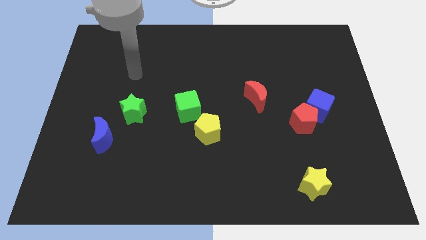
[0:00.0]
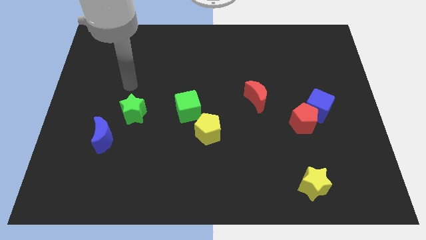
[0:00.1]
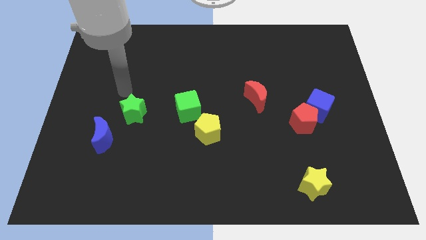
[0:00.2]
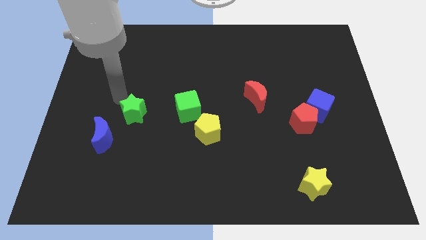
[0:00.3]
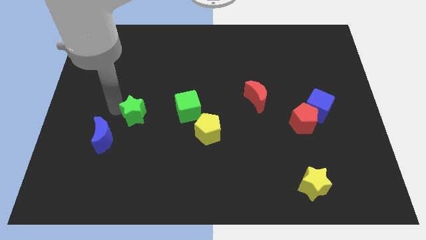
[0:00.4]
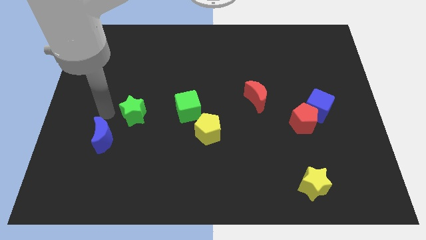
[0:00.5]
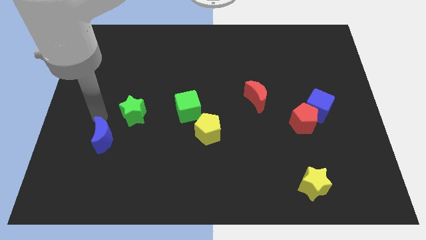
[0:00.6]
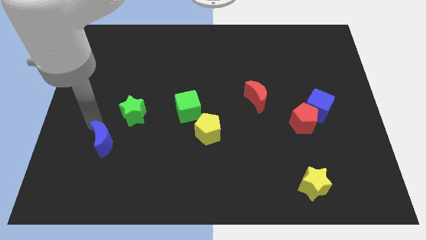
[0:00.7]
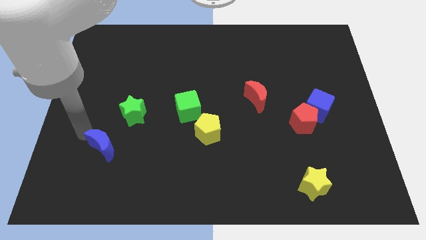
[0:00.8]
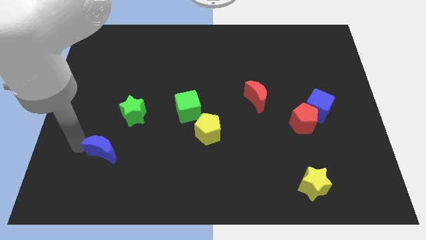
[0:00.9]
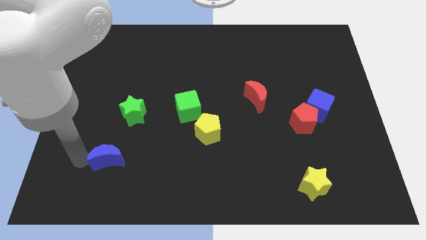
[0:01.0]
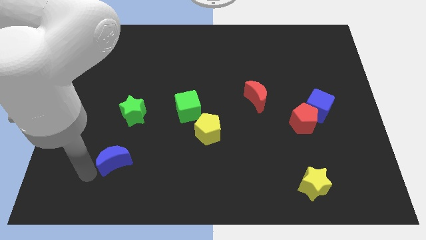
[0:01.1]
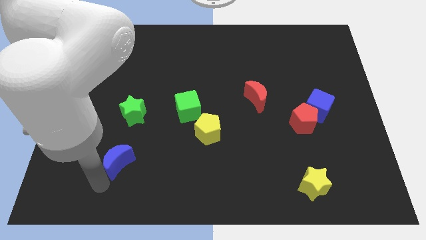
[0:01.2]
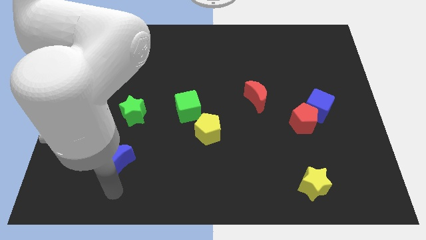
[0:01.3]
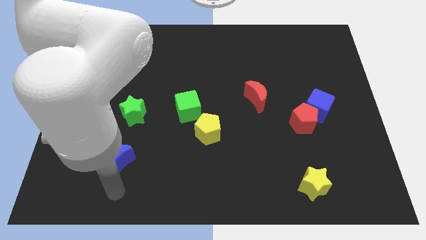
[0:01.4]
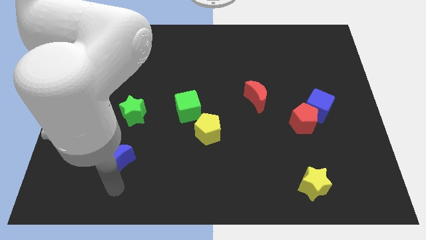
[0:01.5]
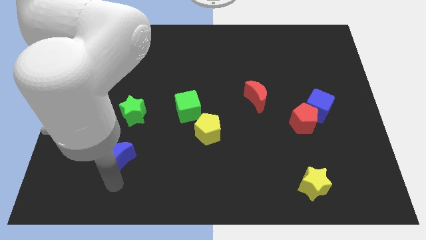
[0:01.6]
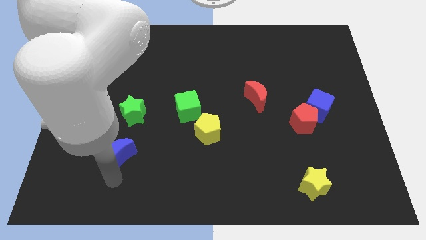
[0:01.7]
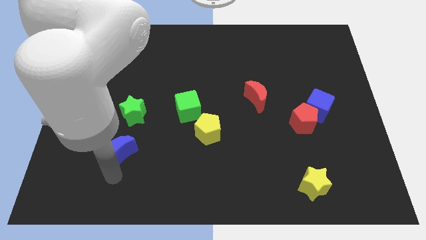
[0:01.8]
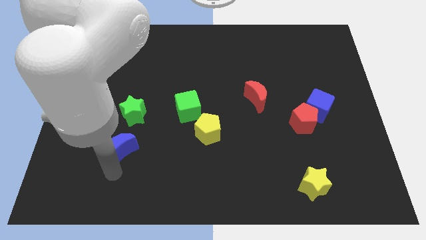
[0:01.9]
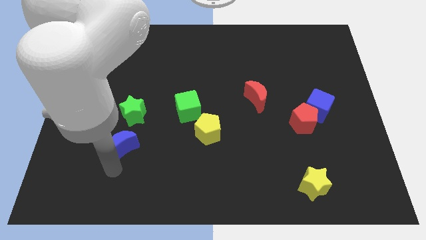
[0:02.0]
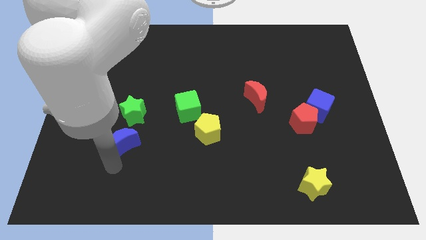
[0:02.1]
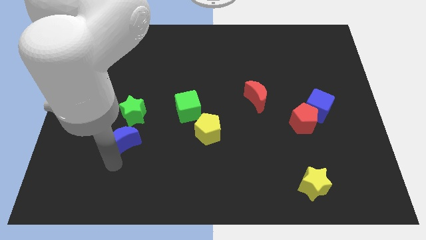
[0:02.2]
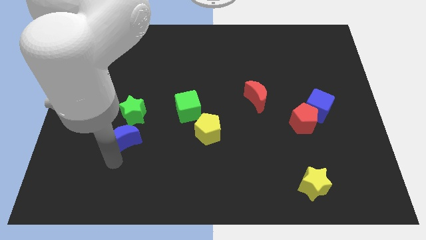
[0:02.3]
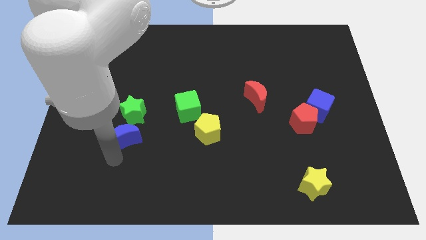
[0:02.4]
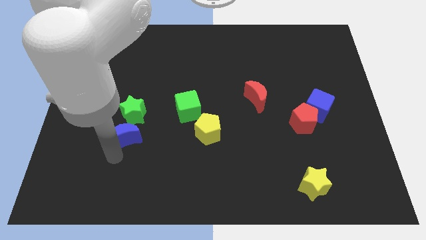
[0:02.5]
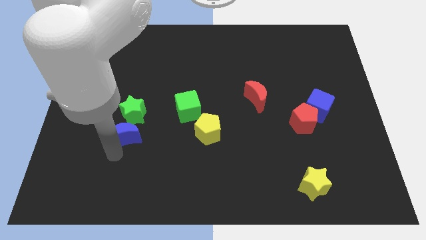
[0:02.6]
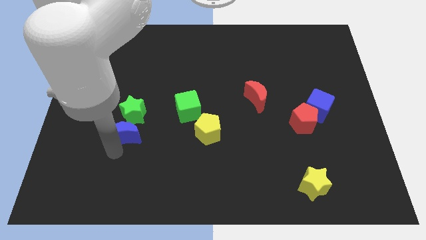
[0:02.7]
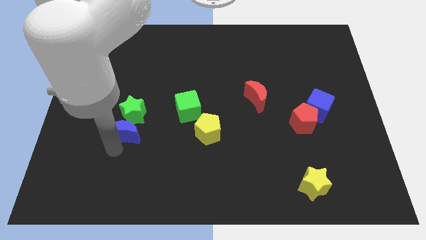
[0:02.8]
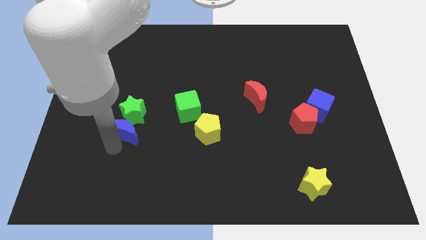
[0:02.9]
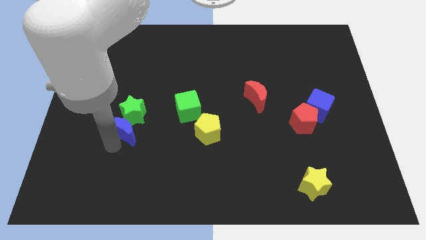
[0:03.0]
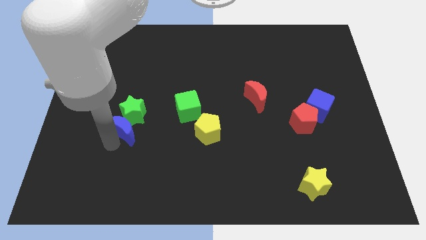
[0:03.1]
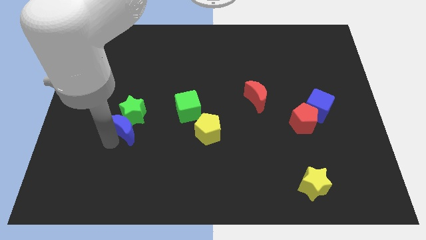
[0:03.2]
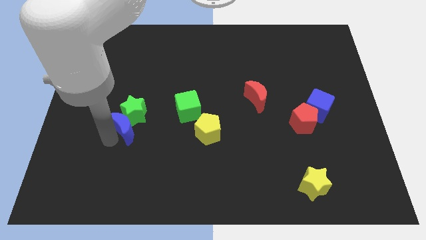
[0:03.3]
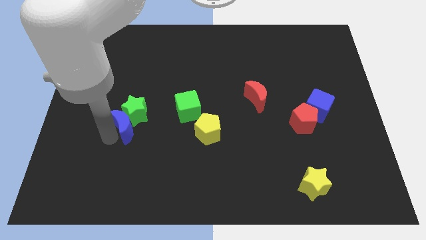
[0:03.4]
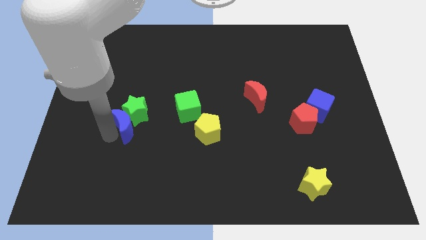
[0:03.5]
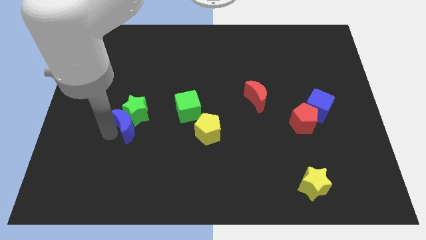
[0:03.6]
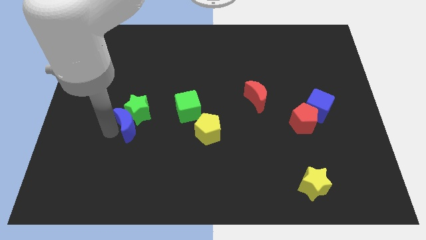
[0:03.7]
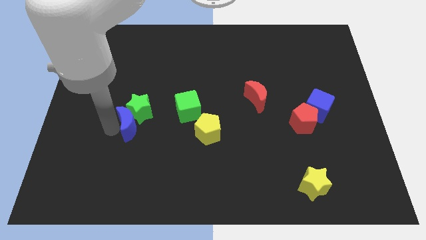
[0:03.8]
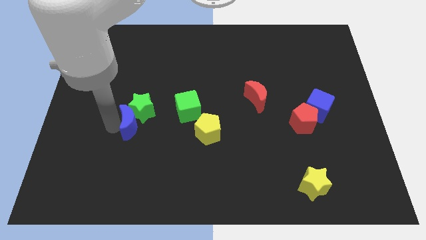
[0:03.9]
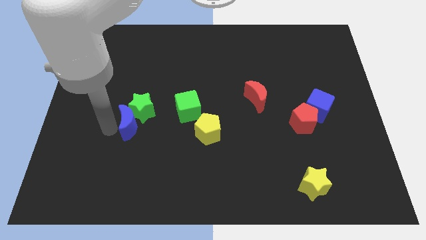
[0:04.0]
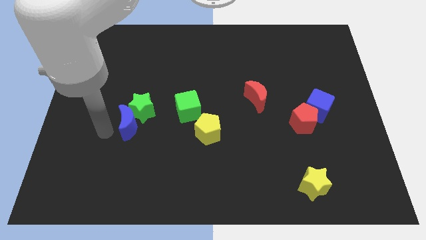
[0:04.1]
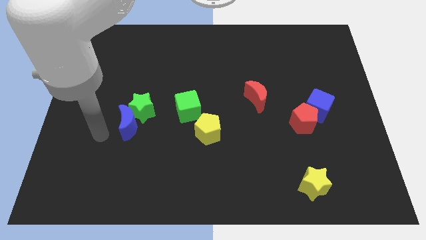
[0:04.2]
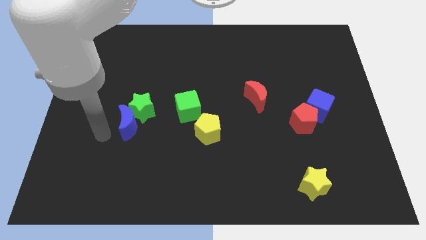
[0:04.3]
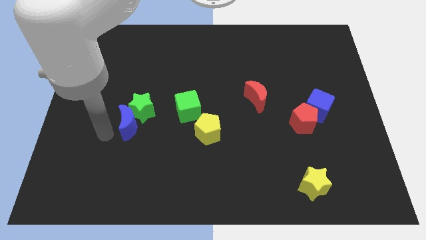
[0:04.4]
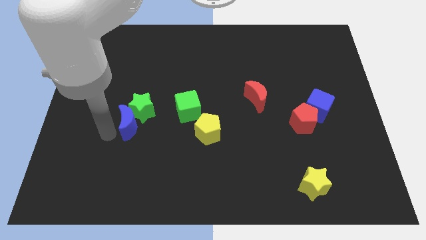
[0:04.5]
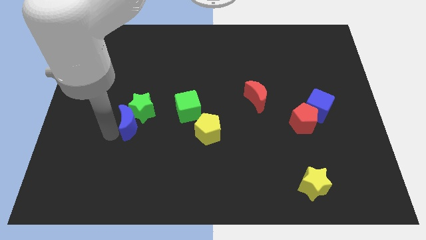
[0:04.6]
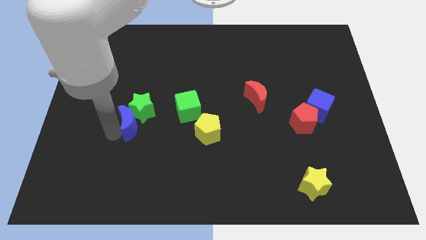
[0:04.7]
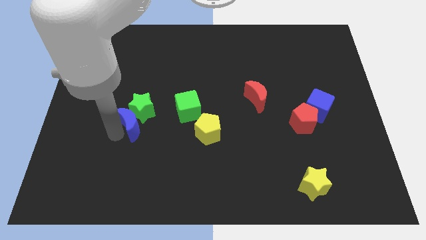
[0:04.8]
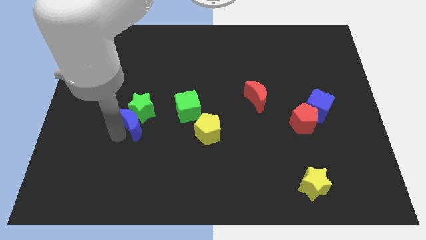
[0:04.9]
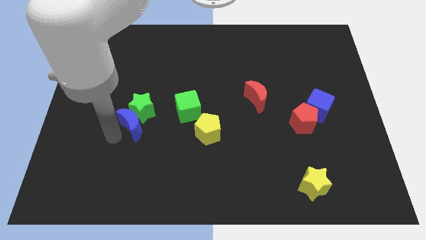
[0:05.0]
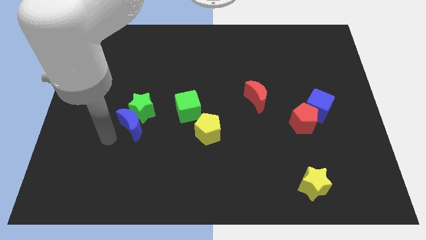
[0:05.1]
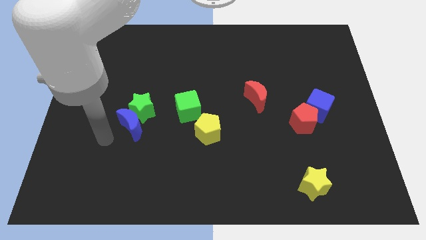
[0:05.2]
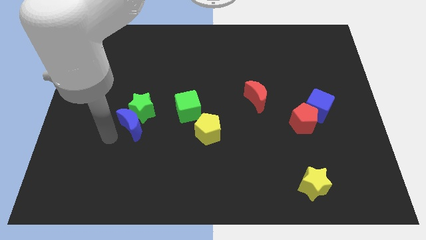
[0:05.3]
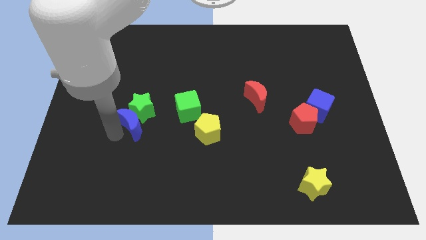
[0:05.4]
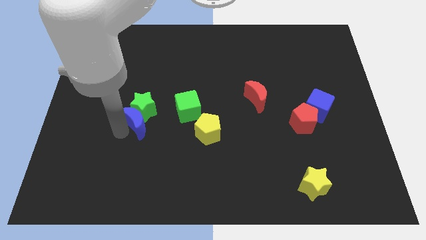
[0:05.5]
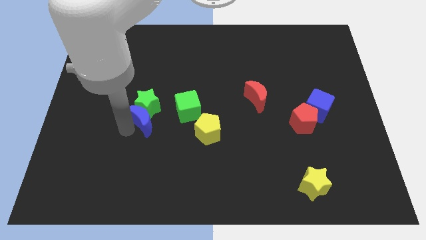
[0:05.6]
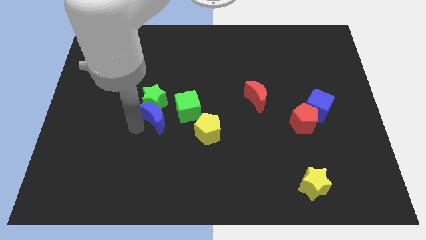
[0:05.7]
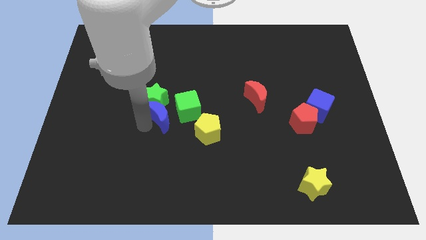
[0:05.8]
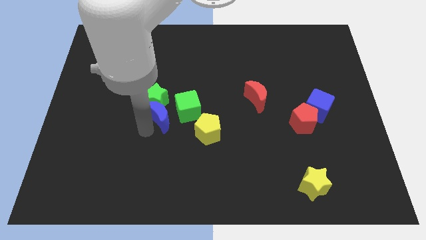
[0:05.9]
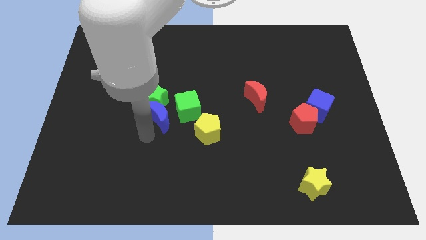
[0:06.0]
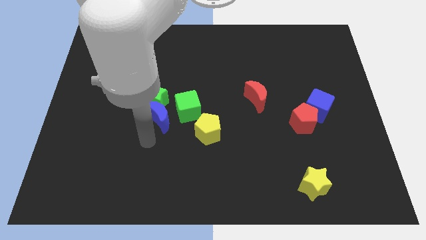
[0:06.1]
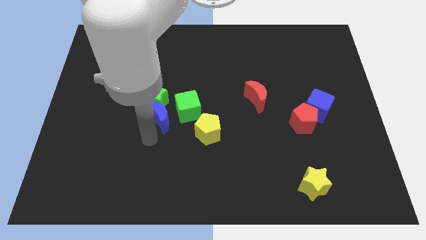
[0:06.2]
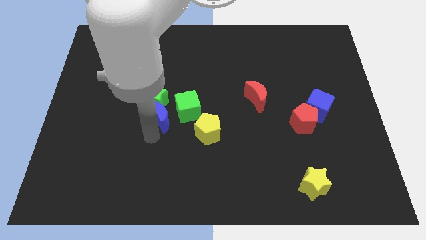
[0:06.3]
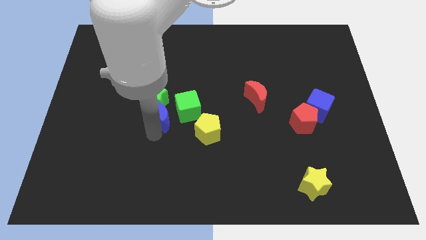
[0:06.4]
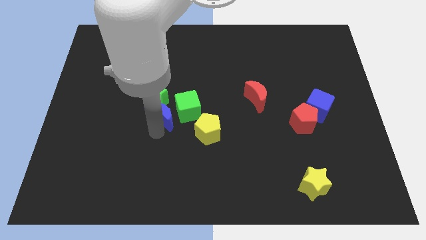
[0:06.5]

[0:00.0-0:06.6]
slide the blue moon to the middle
